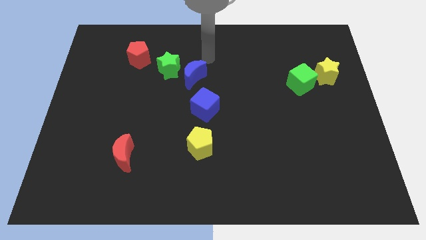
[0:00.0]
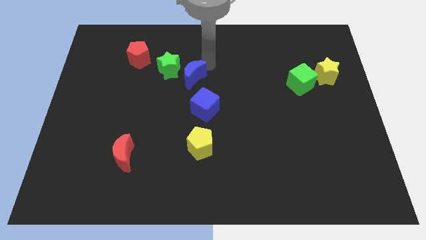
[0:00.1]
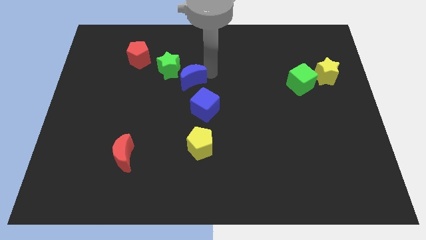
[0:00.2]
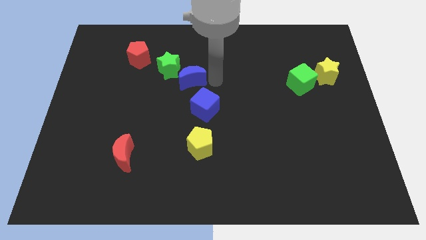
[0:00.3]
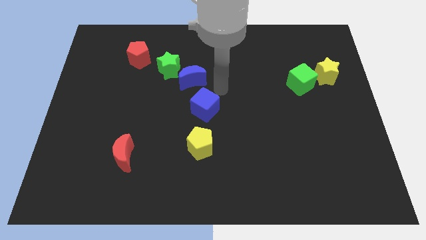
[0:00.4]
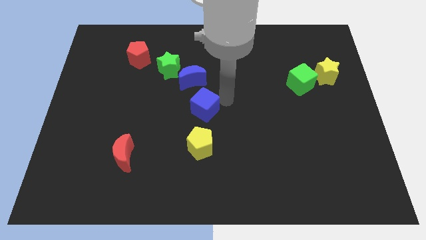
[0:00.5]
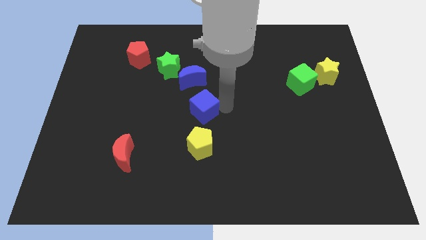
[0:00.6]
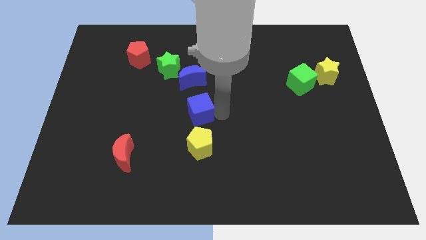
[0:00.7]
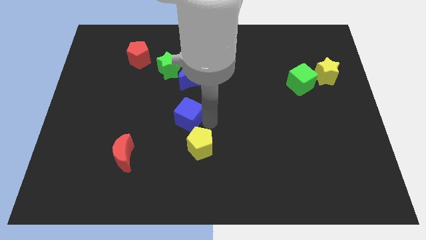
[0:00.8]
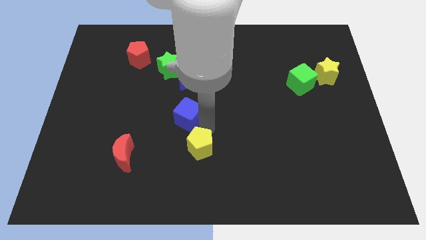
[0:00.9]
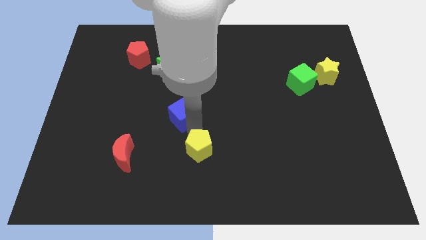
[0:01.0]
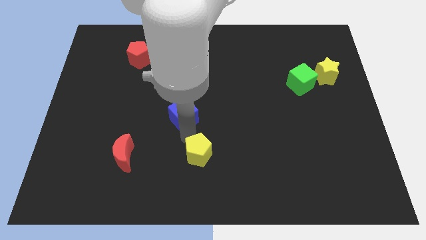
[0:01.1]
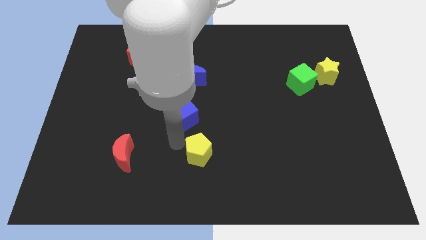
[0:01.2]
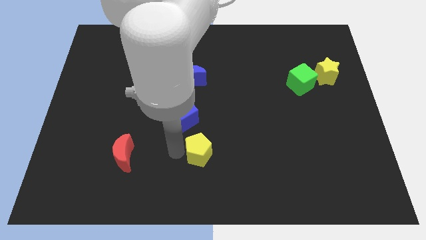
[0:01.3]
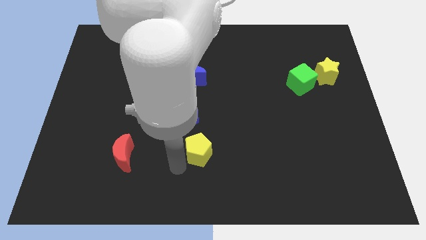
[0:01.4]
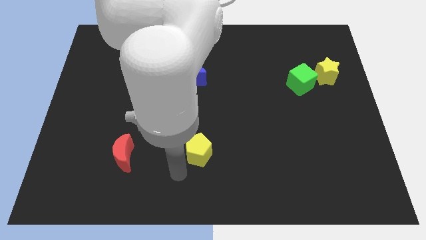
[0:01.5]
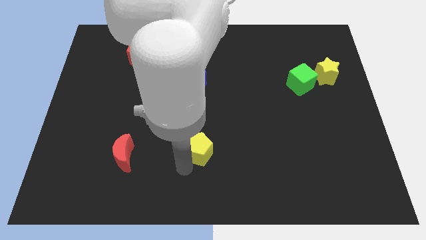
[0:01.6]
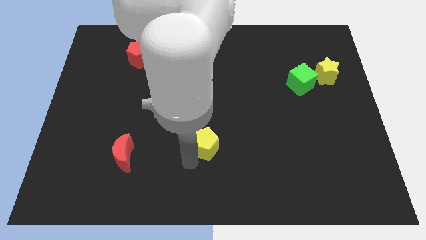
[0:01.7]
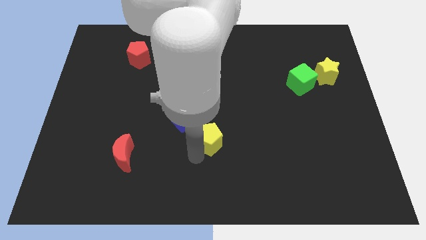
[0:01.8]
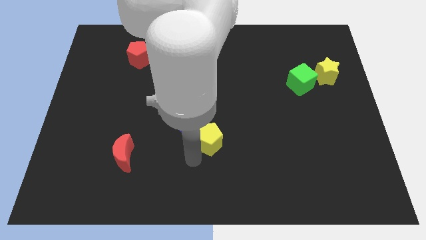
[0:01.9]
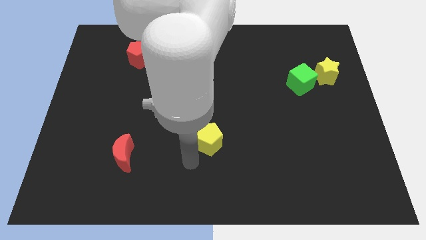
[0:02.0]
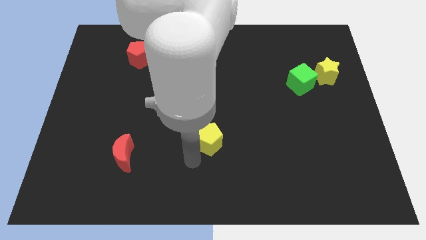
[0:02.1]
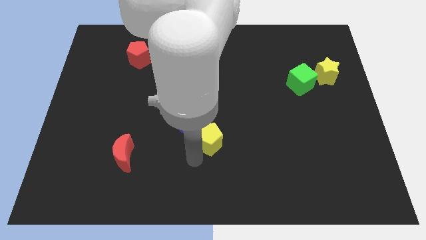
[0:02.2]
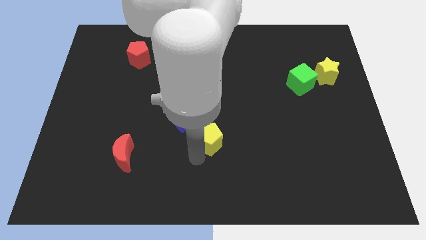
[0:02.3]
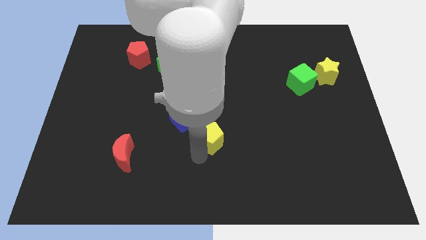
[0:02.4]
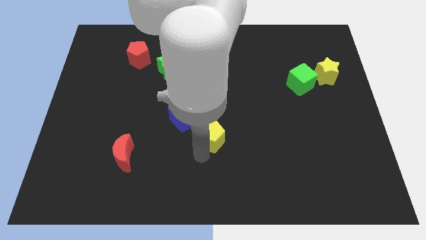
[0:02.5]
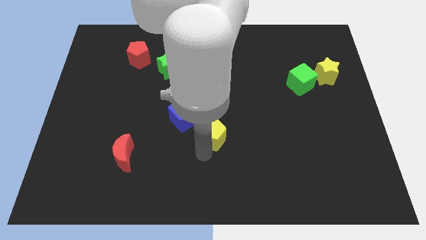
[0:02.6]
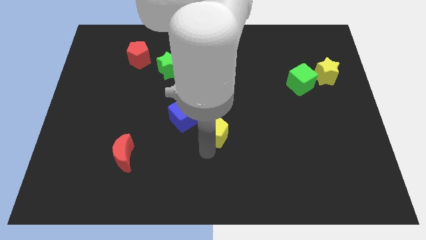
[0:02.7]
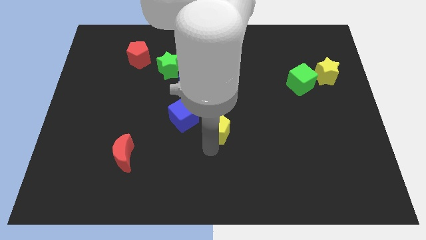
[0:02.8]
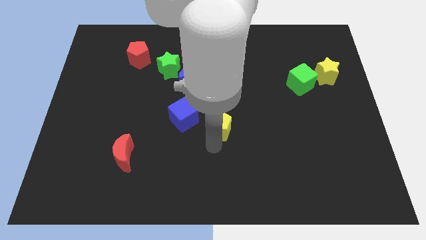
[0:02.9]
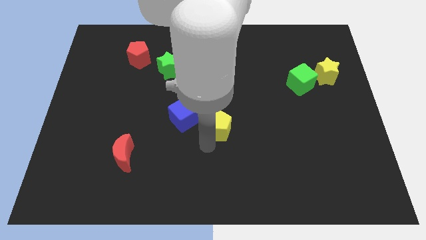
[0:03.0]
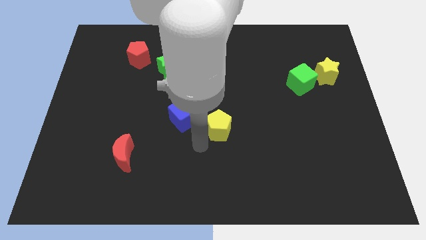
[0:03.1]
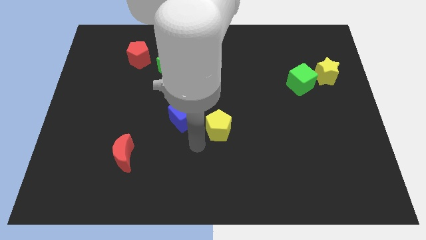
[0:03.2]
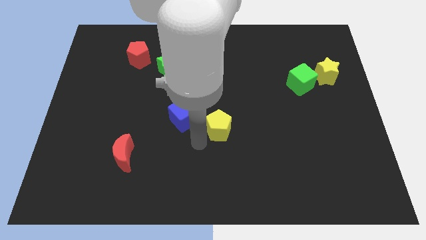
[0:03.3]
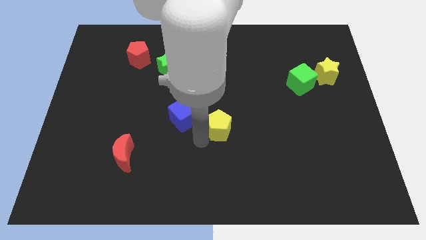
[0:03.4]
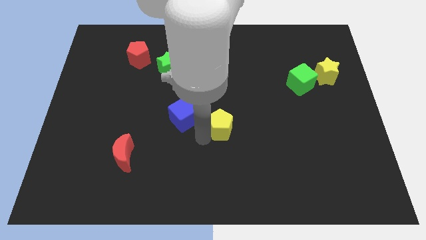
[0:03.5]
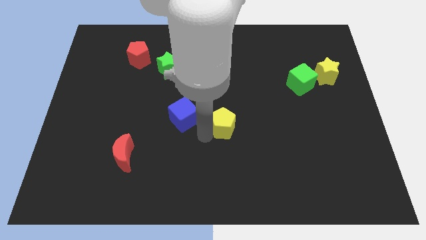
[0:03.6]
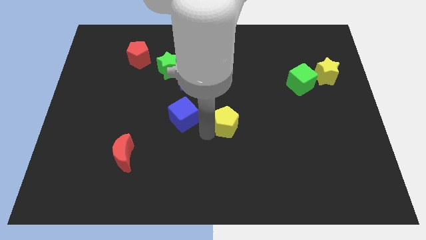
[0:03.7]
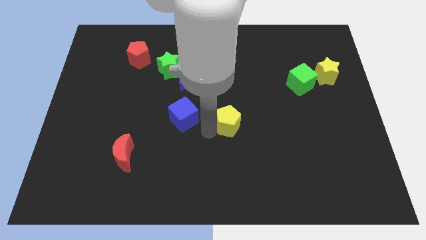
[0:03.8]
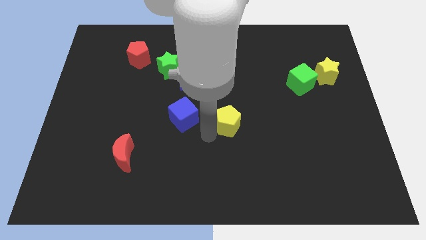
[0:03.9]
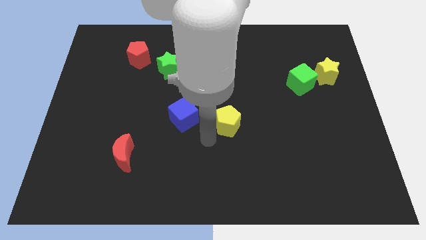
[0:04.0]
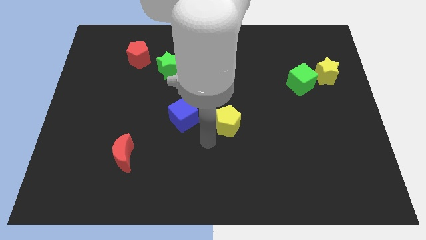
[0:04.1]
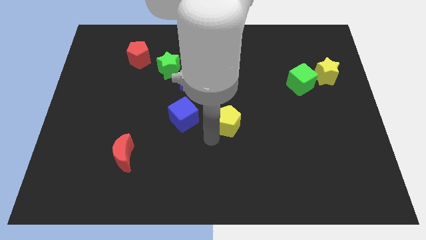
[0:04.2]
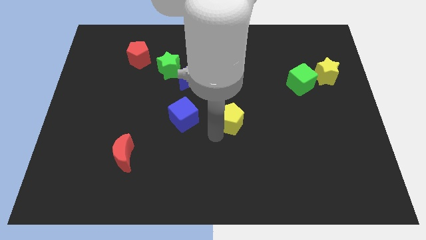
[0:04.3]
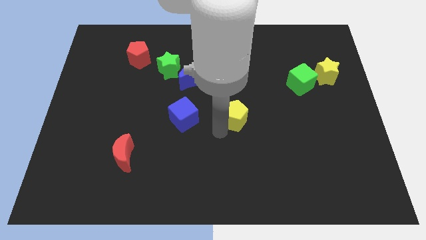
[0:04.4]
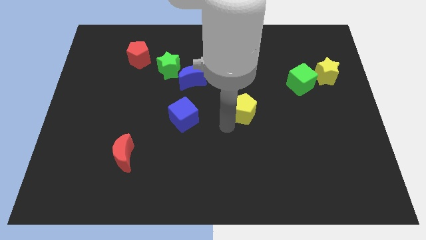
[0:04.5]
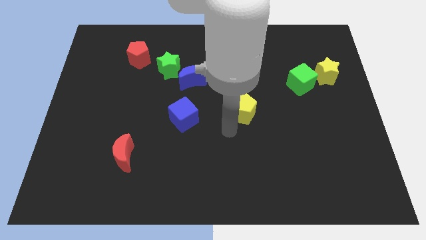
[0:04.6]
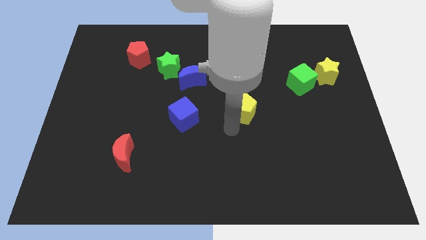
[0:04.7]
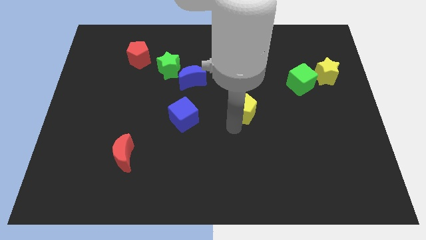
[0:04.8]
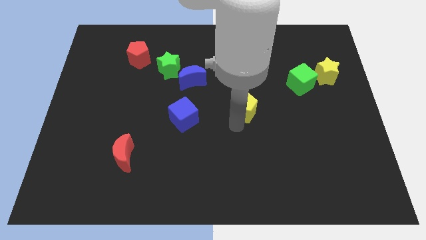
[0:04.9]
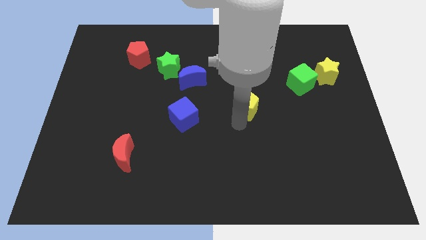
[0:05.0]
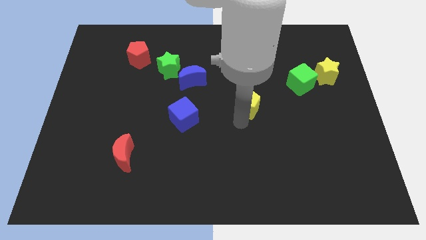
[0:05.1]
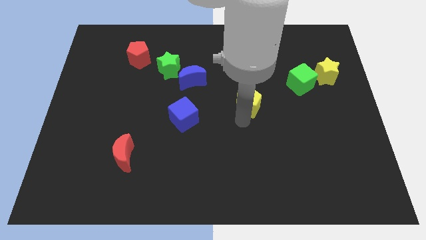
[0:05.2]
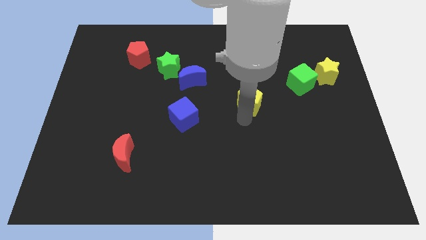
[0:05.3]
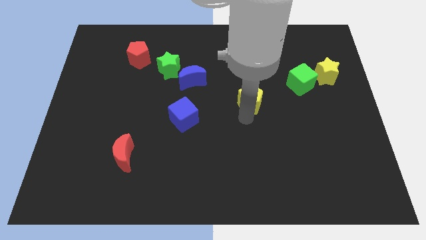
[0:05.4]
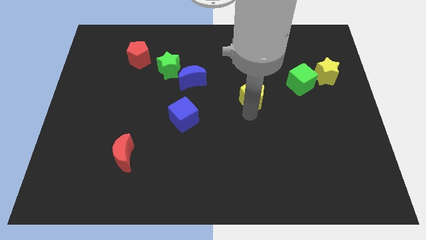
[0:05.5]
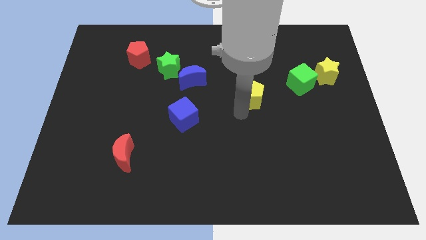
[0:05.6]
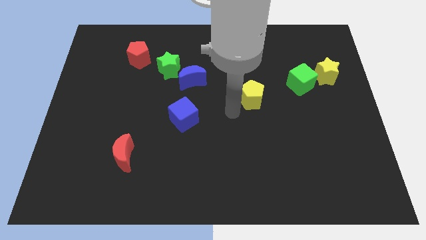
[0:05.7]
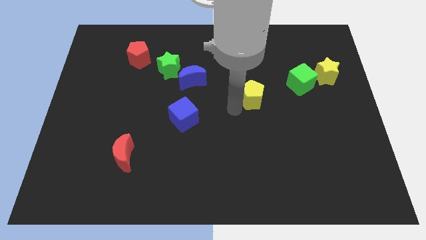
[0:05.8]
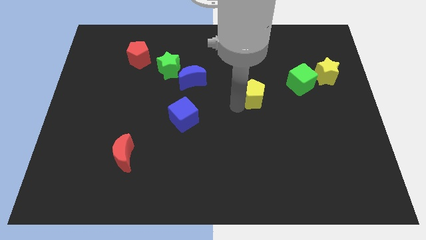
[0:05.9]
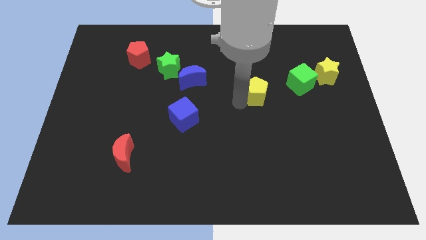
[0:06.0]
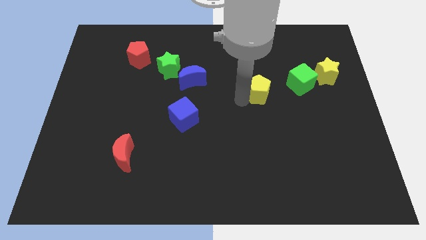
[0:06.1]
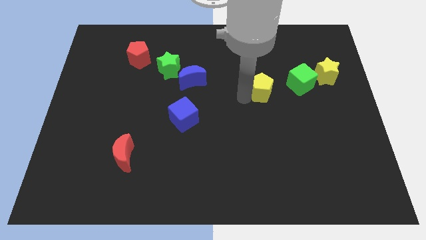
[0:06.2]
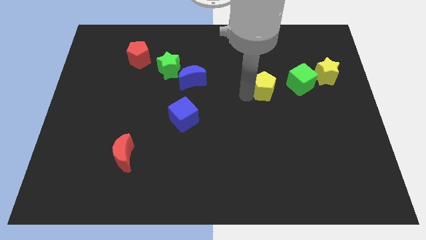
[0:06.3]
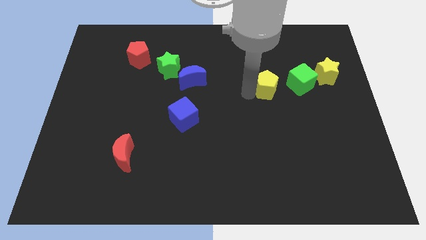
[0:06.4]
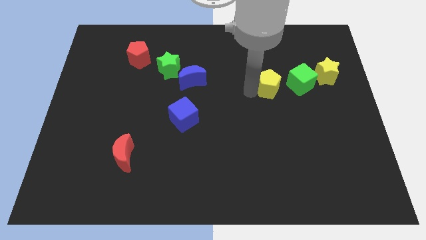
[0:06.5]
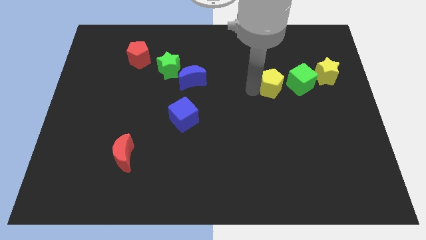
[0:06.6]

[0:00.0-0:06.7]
push the yellow pentagon to the left side of the yellow star
